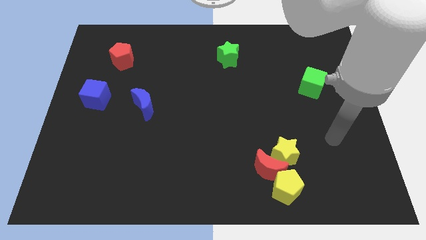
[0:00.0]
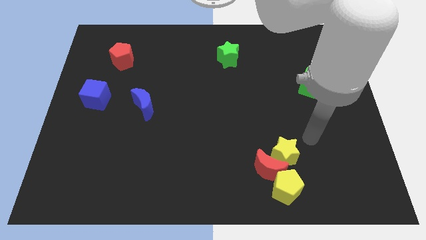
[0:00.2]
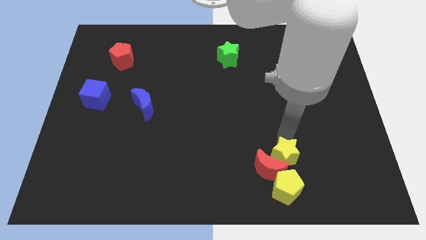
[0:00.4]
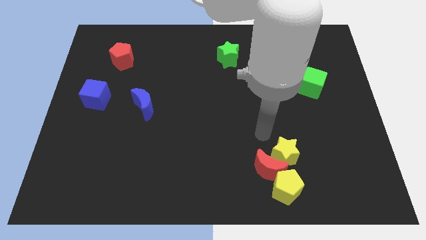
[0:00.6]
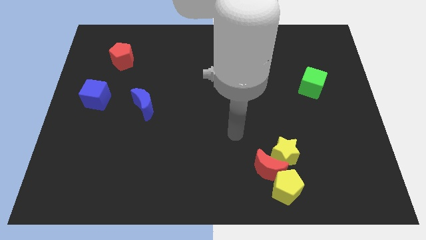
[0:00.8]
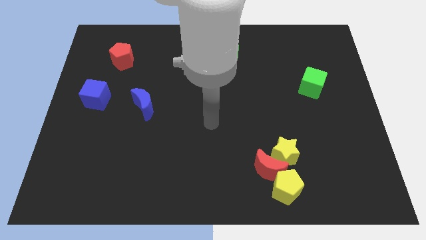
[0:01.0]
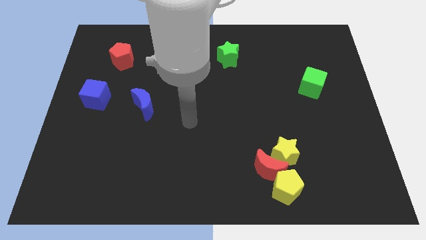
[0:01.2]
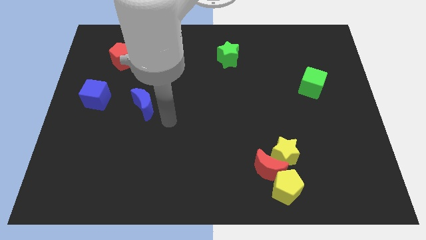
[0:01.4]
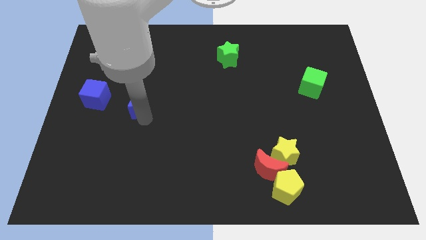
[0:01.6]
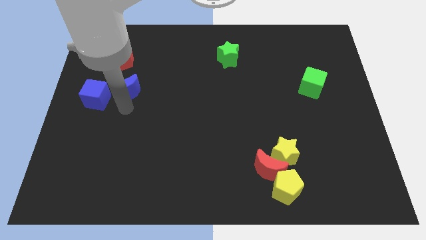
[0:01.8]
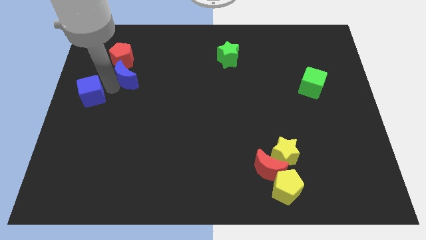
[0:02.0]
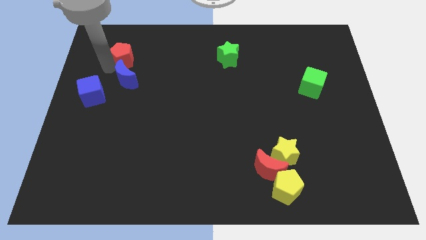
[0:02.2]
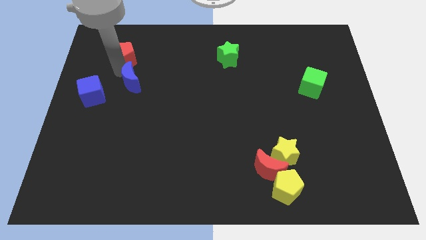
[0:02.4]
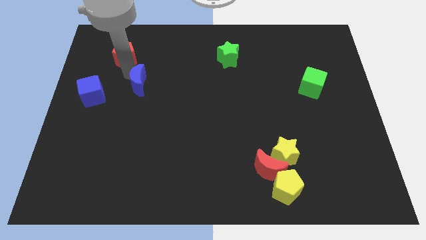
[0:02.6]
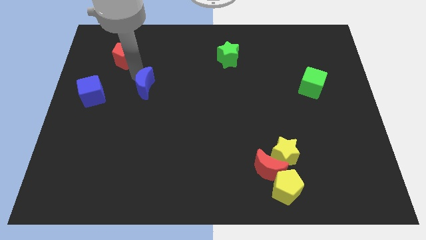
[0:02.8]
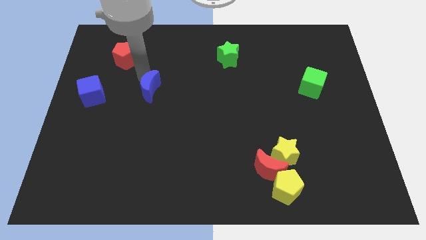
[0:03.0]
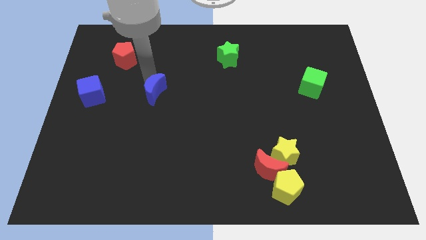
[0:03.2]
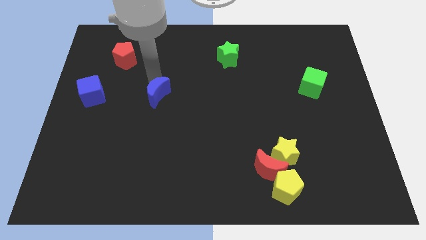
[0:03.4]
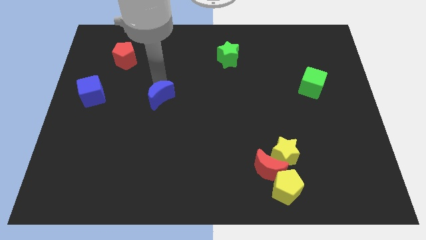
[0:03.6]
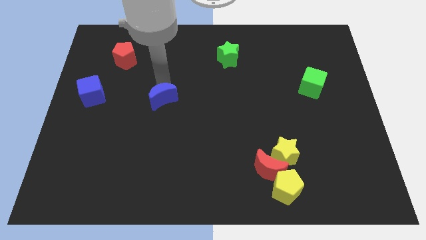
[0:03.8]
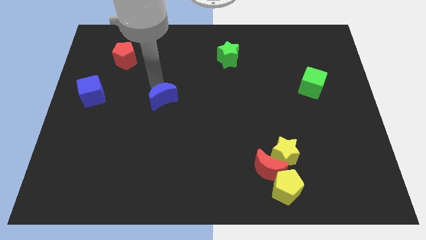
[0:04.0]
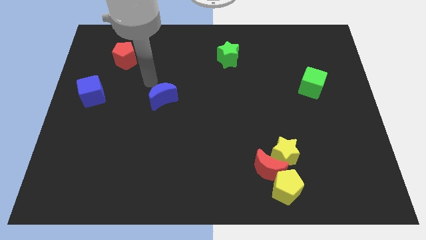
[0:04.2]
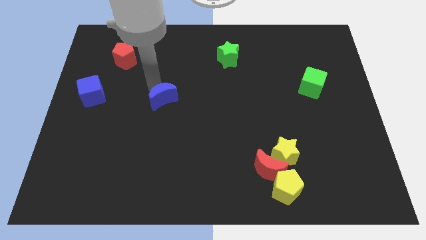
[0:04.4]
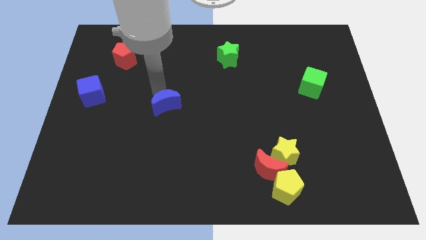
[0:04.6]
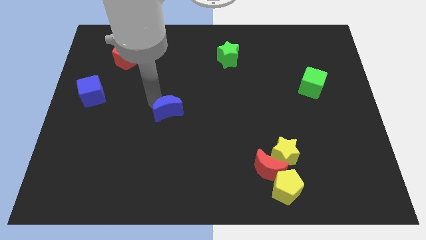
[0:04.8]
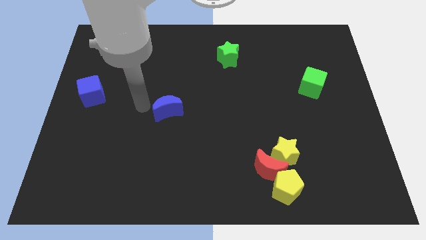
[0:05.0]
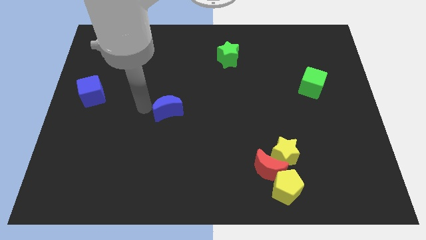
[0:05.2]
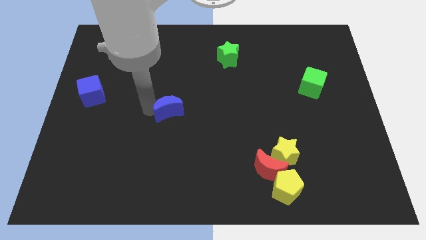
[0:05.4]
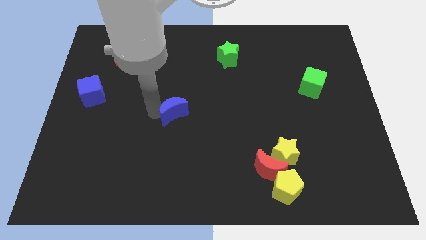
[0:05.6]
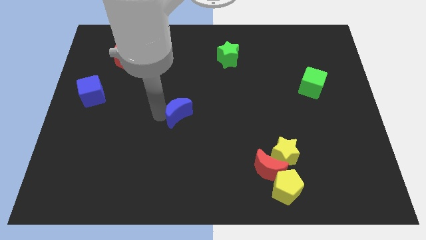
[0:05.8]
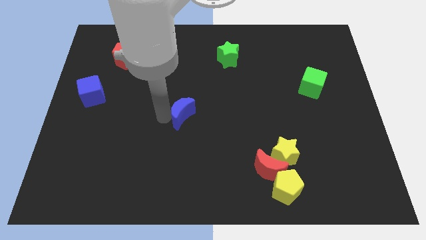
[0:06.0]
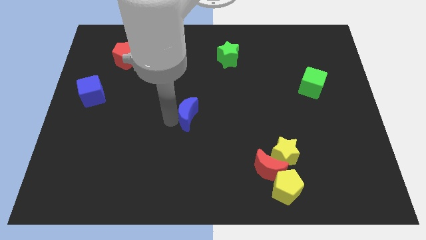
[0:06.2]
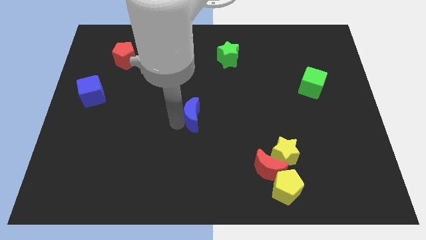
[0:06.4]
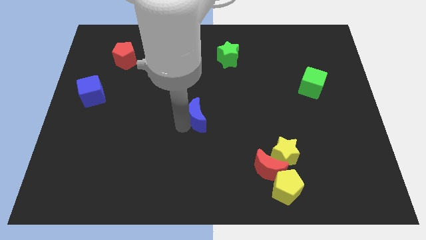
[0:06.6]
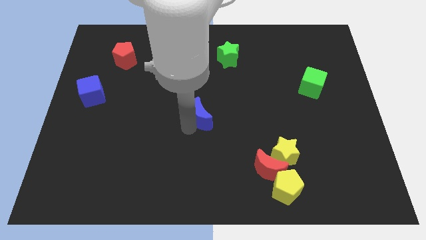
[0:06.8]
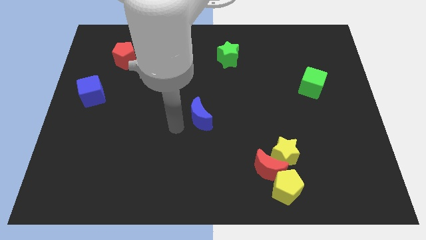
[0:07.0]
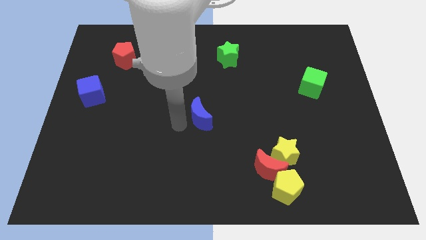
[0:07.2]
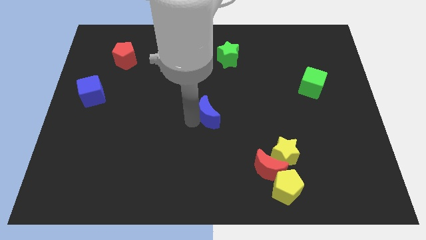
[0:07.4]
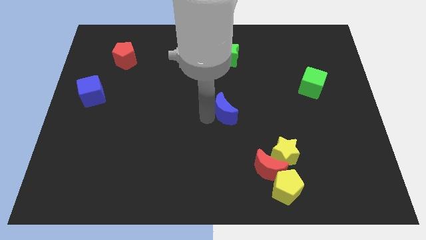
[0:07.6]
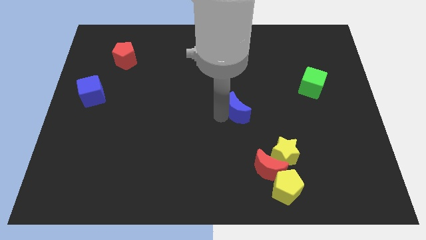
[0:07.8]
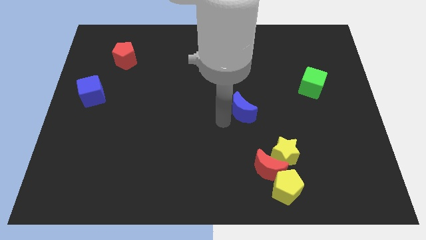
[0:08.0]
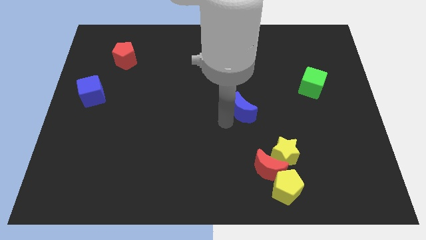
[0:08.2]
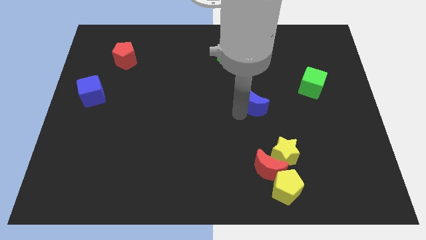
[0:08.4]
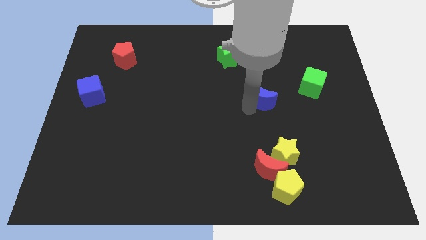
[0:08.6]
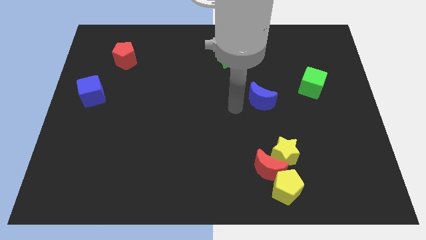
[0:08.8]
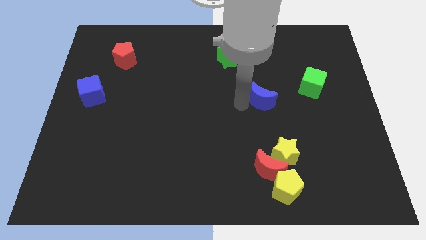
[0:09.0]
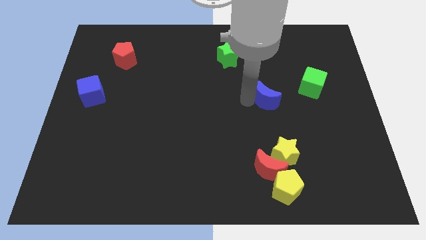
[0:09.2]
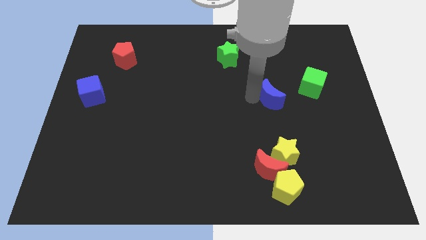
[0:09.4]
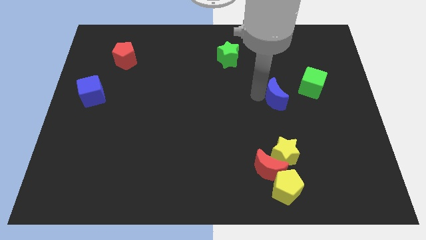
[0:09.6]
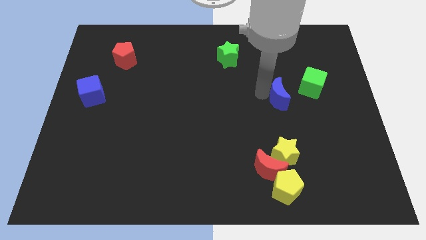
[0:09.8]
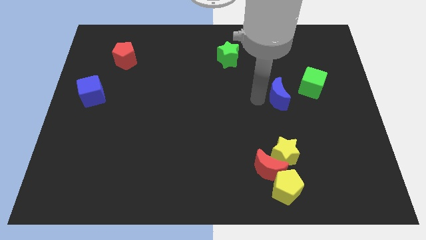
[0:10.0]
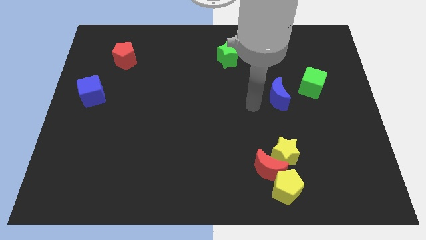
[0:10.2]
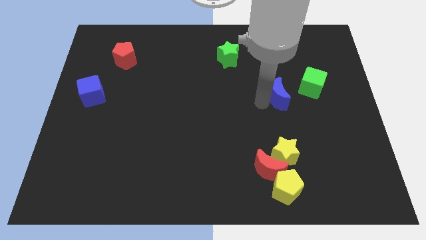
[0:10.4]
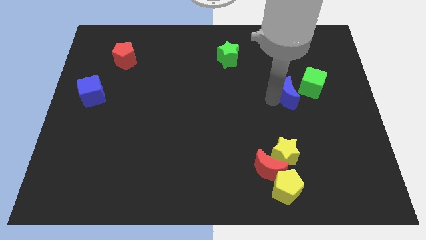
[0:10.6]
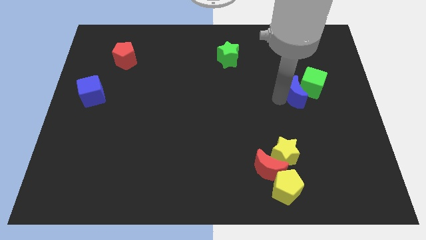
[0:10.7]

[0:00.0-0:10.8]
push the blue moon towards the green cube

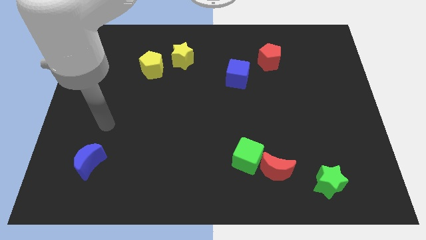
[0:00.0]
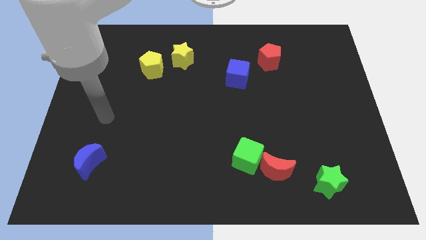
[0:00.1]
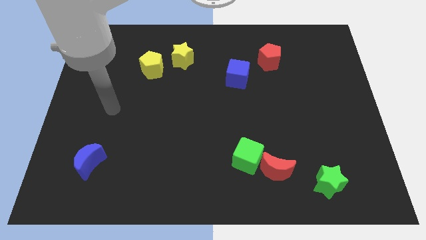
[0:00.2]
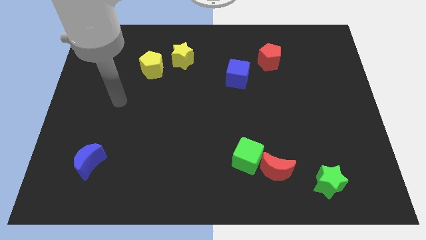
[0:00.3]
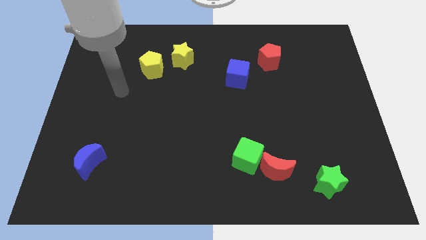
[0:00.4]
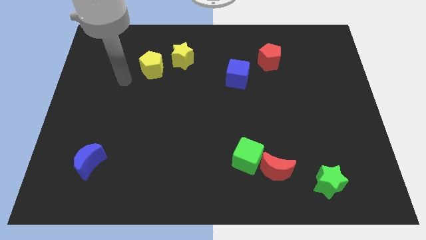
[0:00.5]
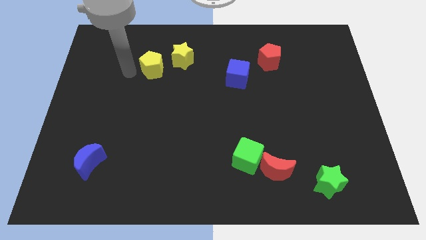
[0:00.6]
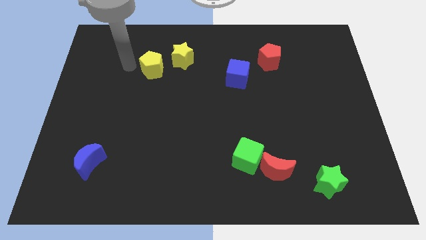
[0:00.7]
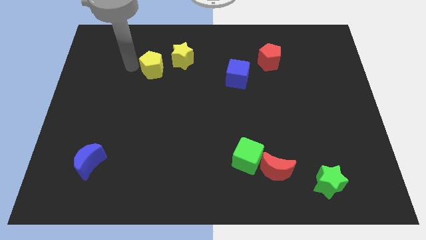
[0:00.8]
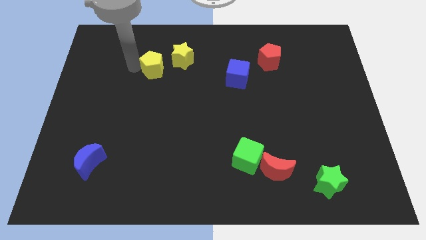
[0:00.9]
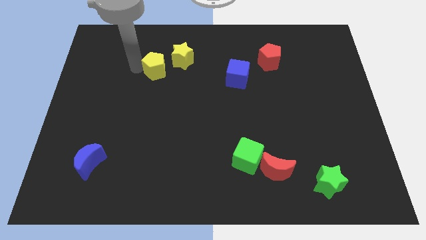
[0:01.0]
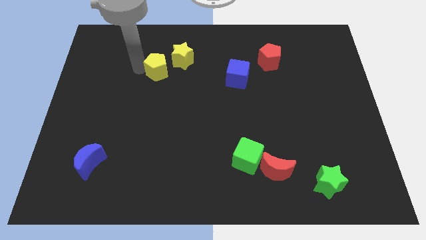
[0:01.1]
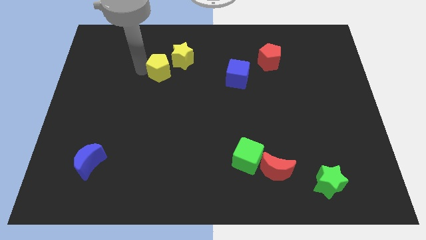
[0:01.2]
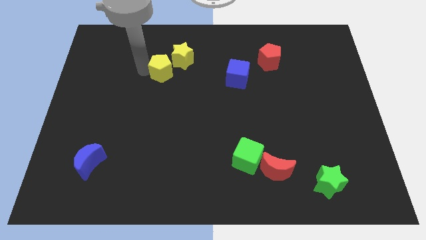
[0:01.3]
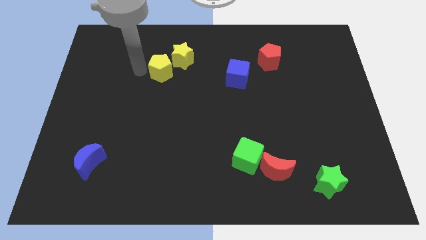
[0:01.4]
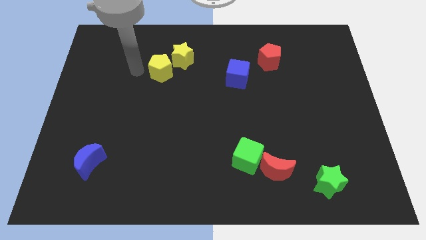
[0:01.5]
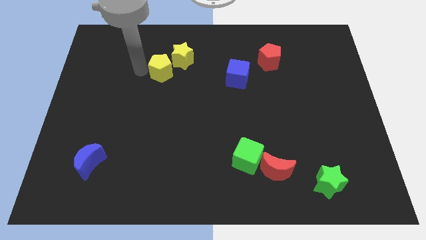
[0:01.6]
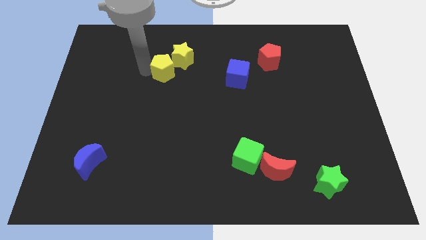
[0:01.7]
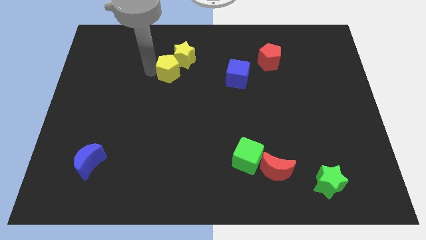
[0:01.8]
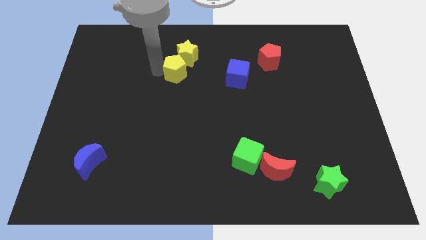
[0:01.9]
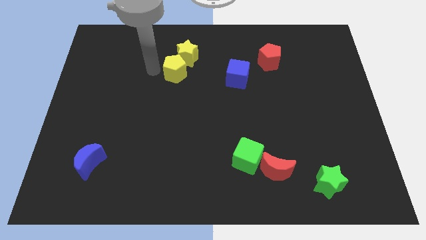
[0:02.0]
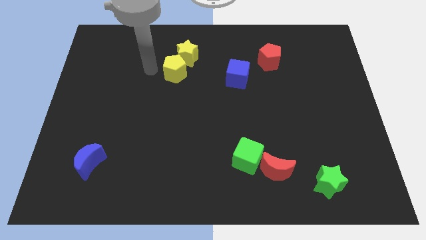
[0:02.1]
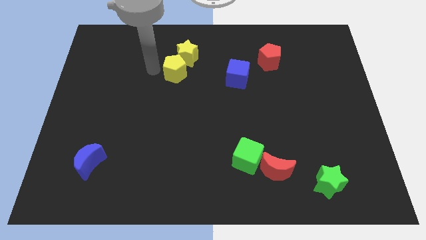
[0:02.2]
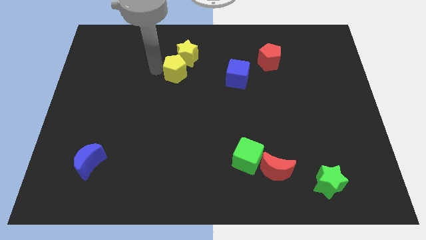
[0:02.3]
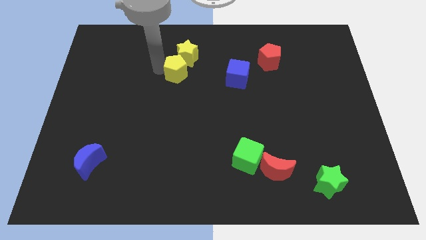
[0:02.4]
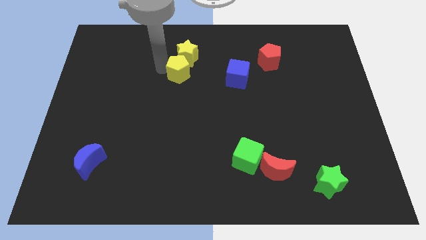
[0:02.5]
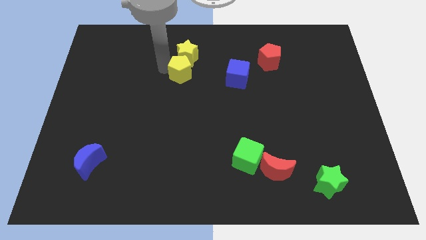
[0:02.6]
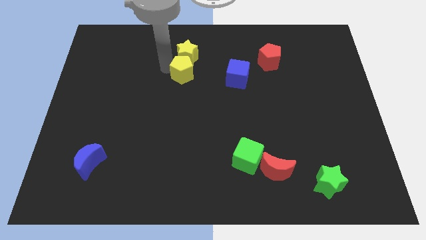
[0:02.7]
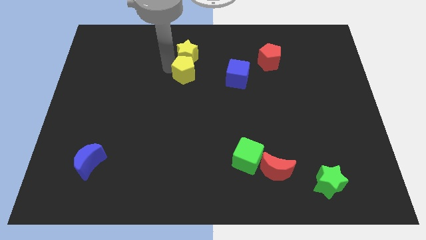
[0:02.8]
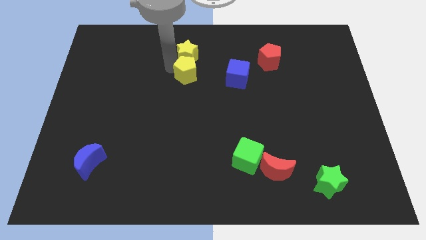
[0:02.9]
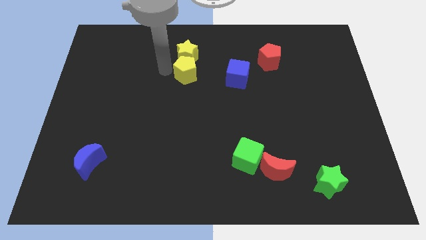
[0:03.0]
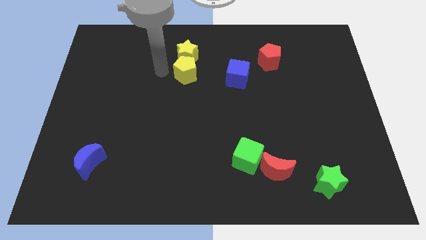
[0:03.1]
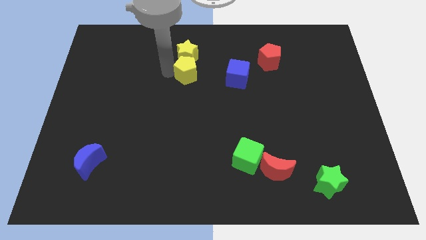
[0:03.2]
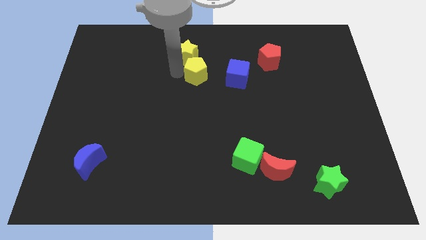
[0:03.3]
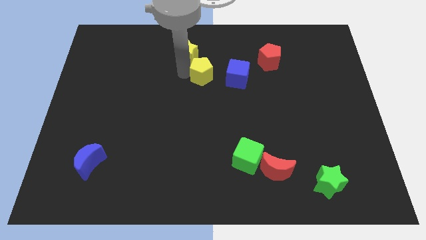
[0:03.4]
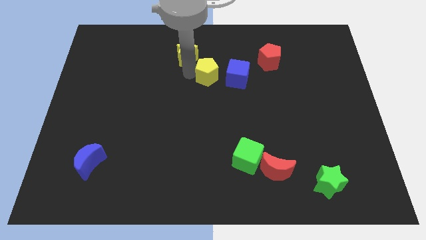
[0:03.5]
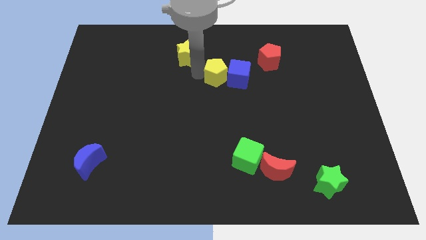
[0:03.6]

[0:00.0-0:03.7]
move the yellow pentagon next to the blue cube
